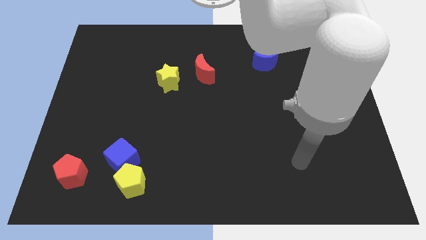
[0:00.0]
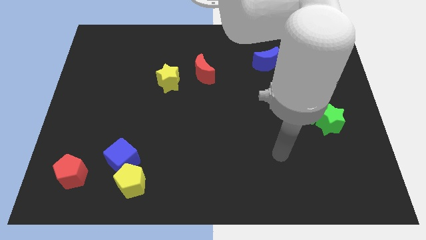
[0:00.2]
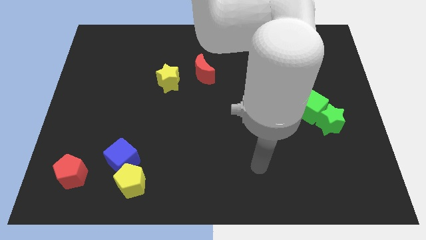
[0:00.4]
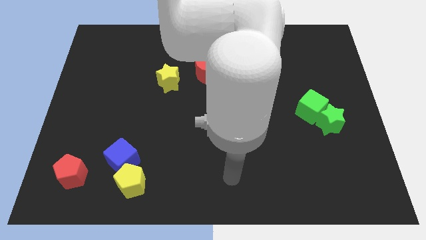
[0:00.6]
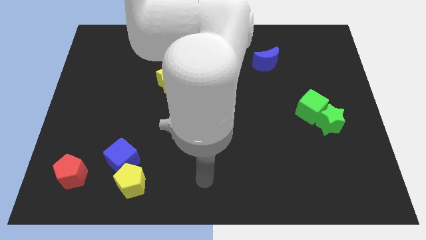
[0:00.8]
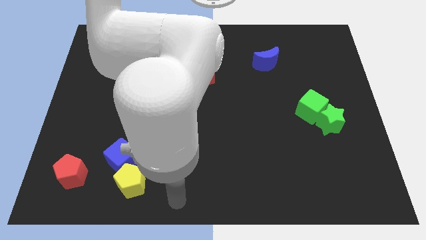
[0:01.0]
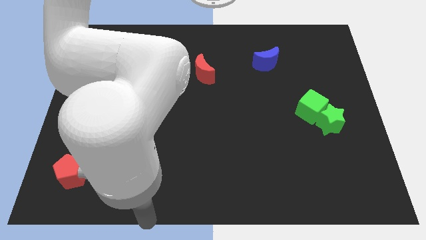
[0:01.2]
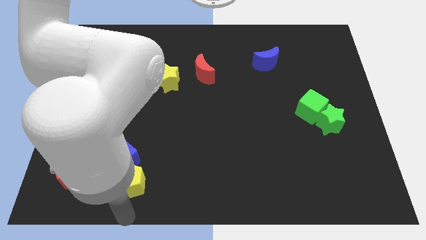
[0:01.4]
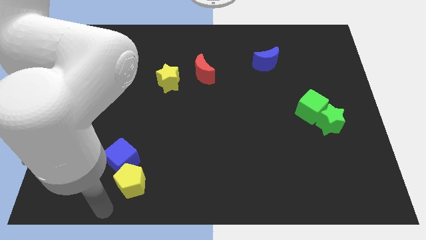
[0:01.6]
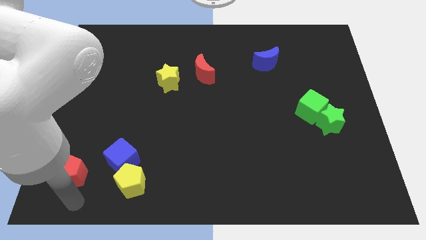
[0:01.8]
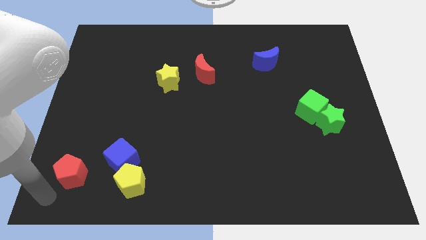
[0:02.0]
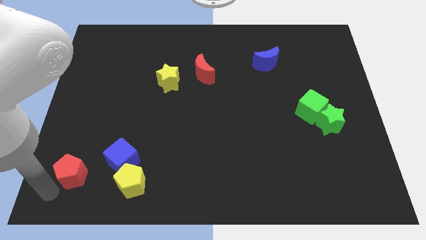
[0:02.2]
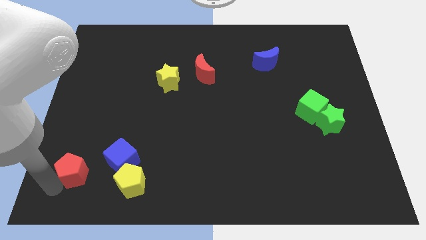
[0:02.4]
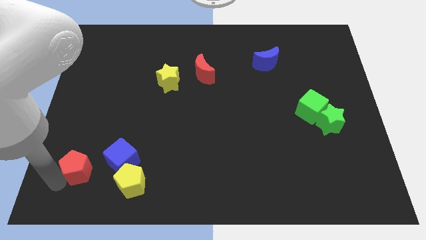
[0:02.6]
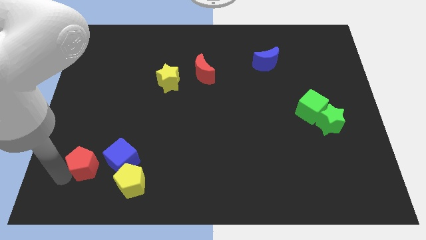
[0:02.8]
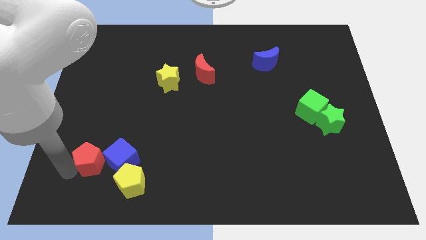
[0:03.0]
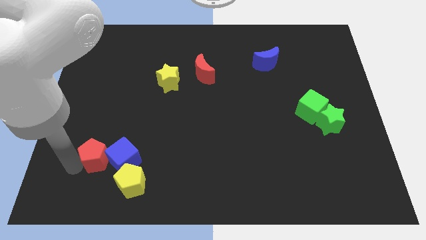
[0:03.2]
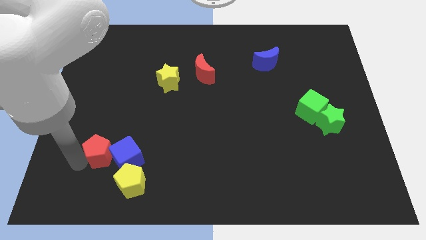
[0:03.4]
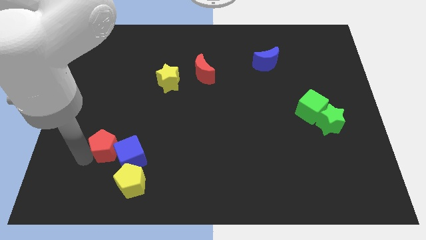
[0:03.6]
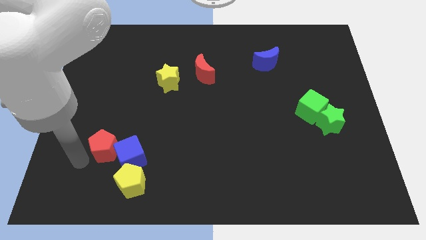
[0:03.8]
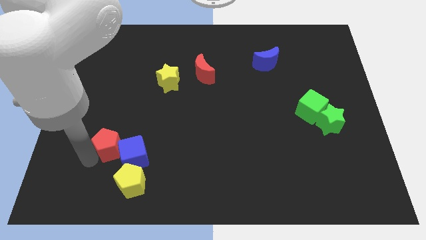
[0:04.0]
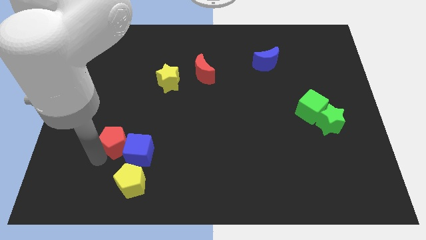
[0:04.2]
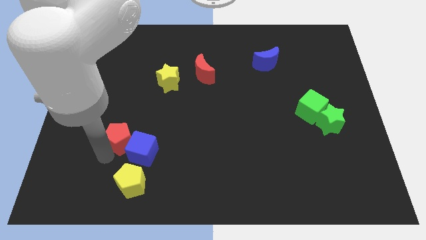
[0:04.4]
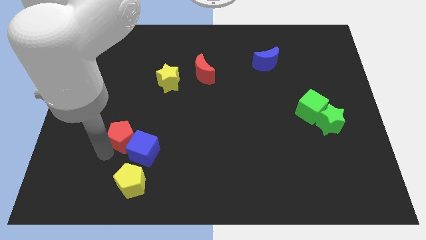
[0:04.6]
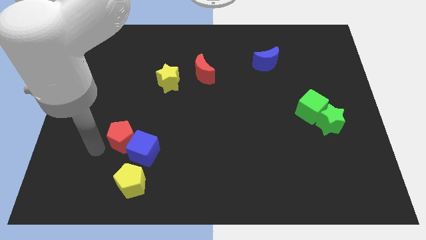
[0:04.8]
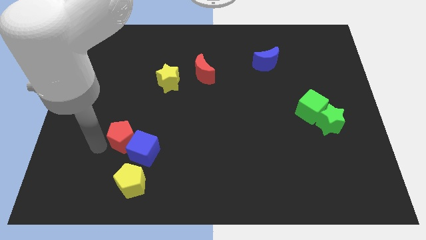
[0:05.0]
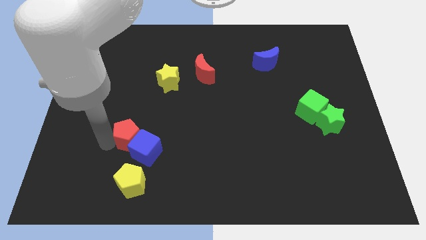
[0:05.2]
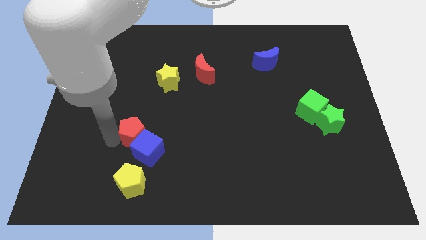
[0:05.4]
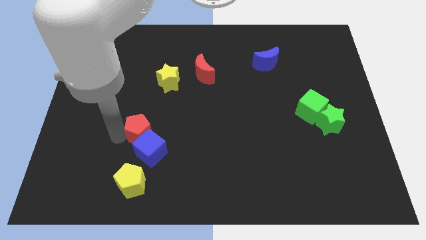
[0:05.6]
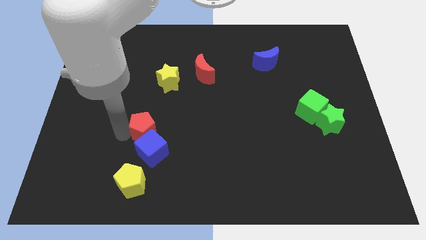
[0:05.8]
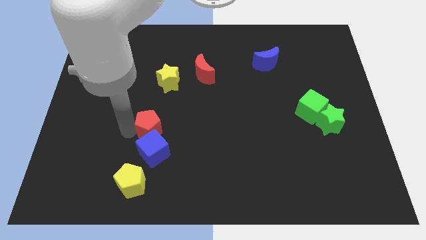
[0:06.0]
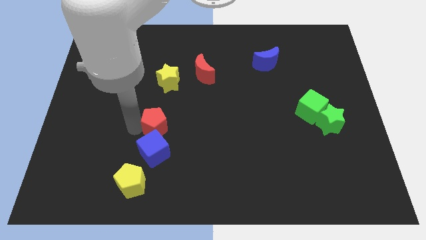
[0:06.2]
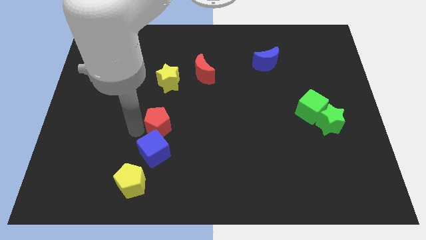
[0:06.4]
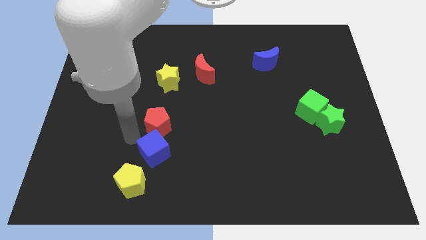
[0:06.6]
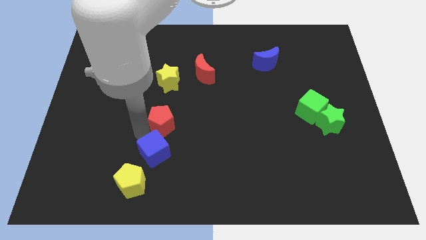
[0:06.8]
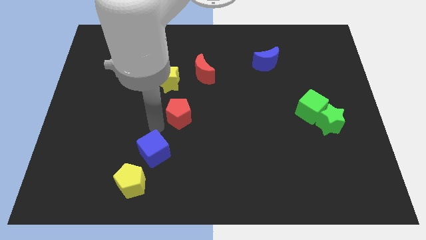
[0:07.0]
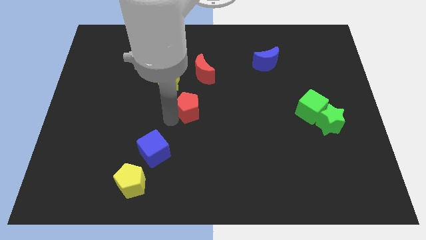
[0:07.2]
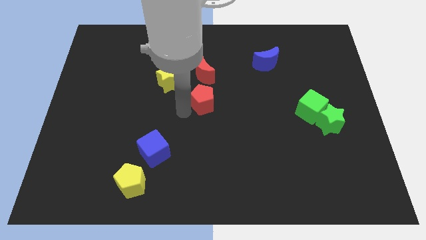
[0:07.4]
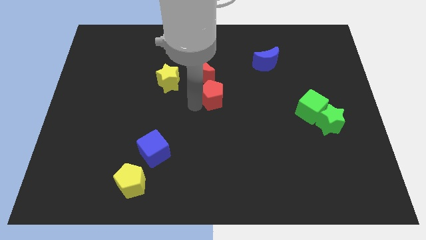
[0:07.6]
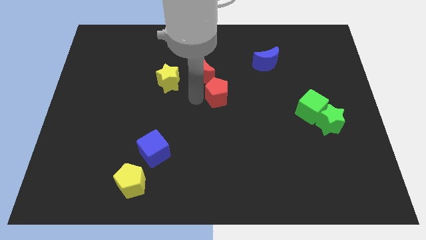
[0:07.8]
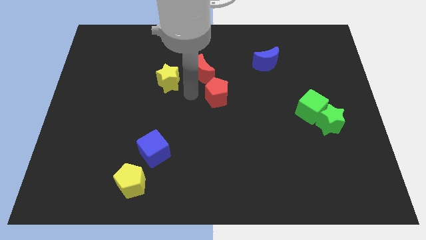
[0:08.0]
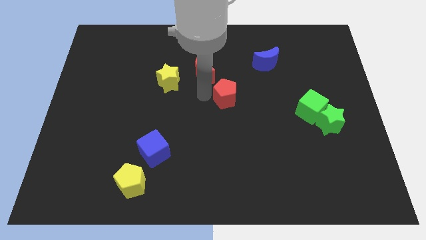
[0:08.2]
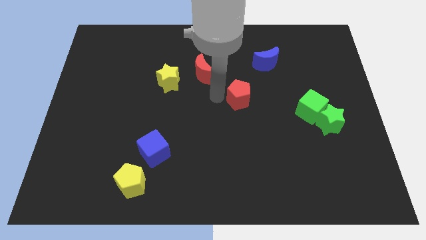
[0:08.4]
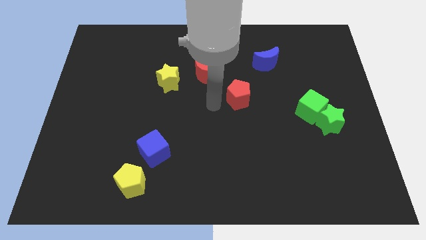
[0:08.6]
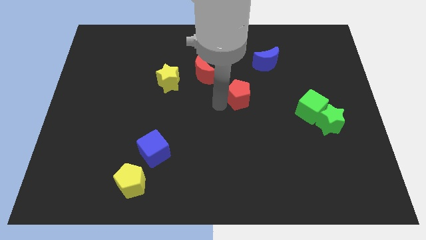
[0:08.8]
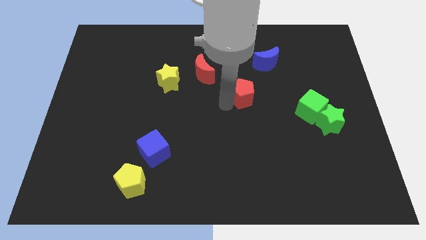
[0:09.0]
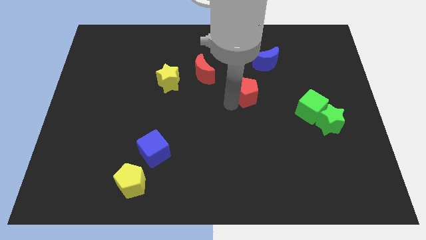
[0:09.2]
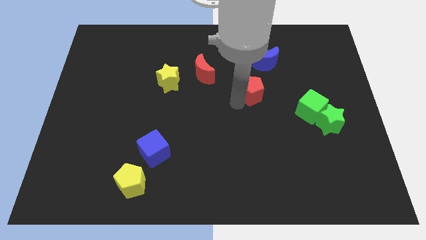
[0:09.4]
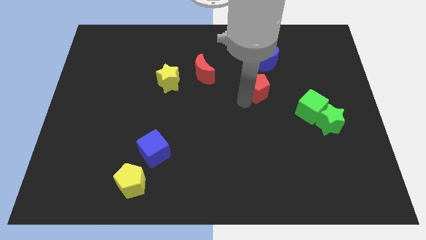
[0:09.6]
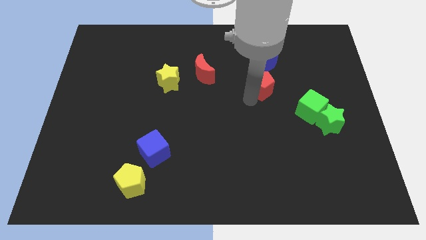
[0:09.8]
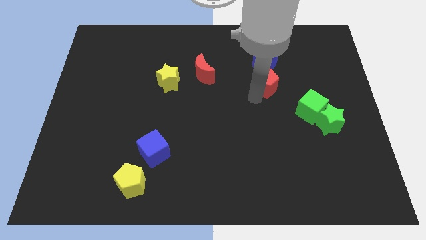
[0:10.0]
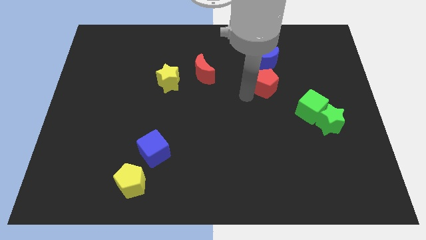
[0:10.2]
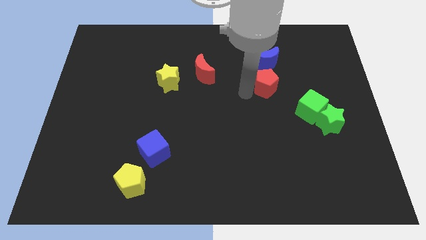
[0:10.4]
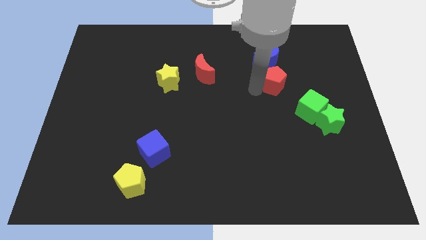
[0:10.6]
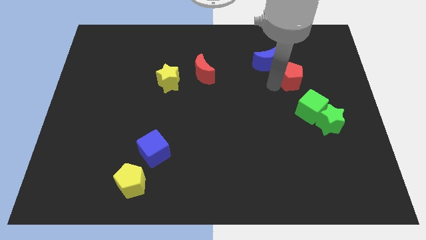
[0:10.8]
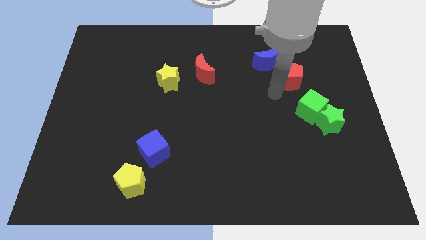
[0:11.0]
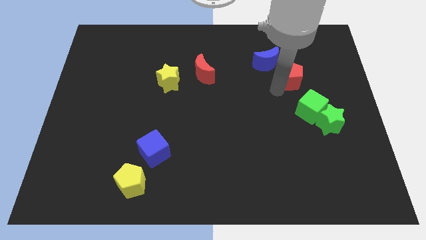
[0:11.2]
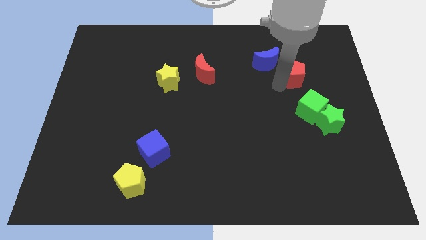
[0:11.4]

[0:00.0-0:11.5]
put the red pentagon to the right of the blue moon
